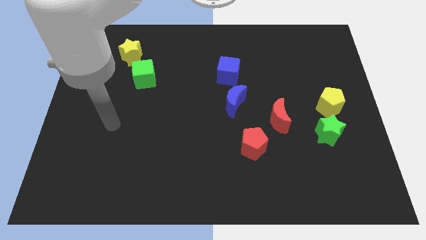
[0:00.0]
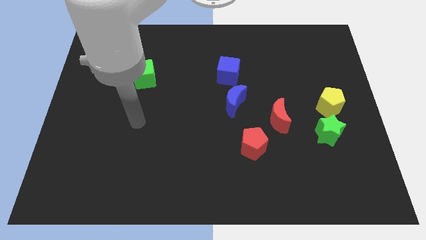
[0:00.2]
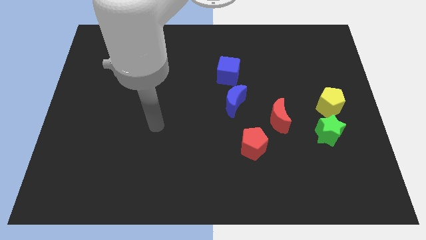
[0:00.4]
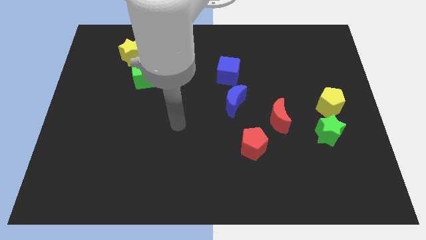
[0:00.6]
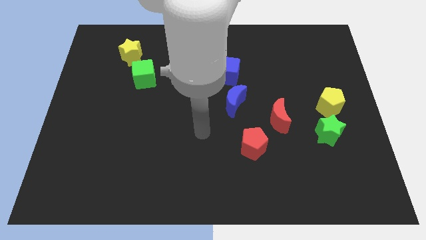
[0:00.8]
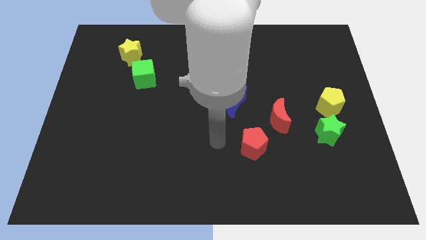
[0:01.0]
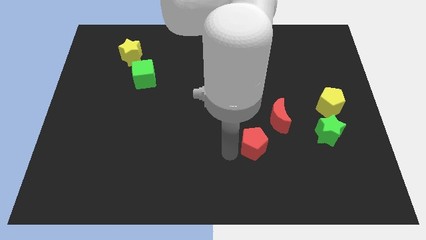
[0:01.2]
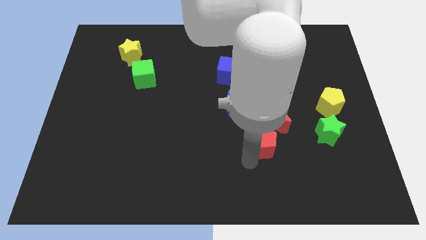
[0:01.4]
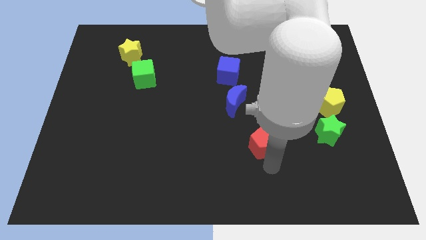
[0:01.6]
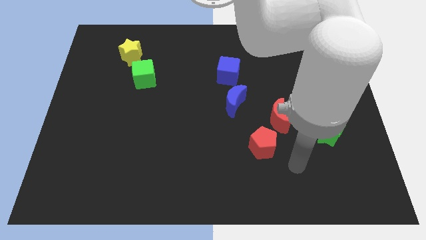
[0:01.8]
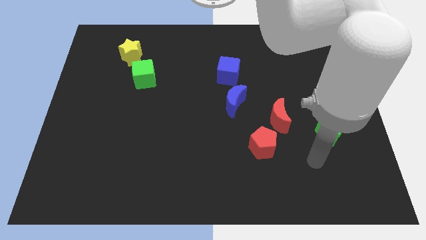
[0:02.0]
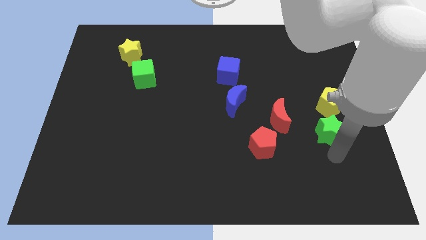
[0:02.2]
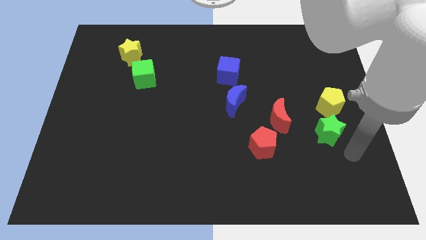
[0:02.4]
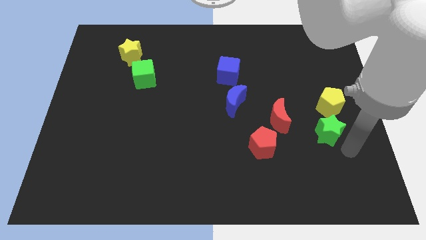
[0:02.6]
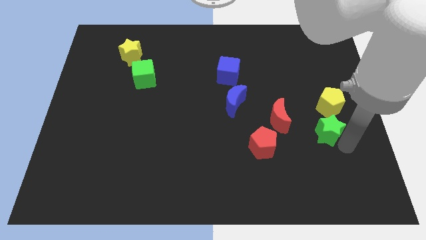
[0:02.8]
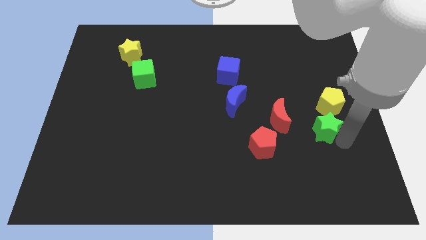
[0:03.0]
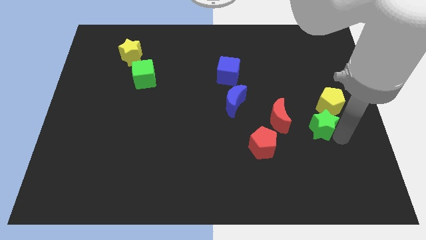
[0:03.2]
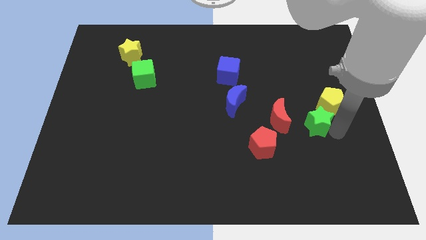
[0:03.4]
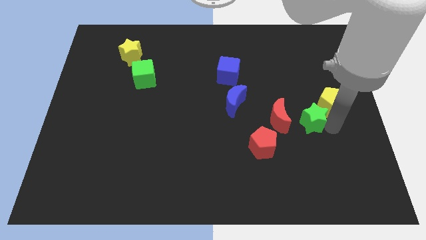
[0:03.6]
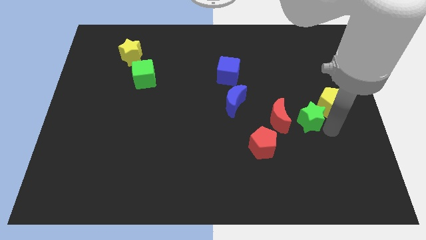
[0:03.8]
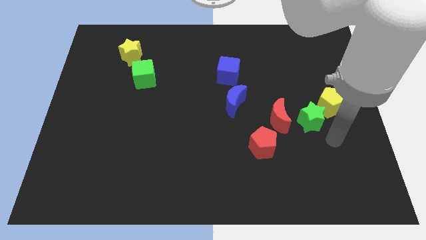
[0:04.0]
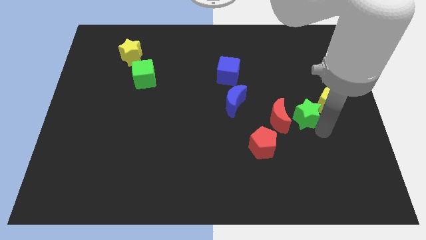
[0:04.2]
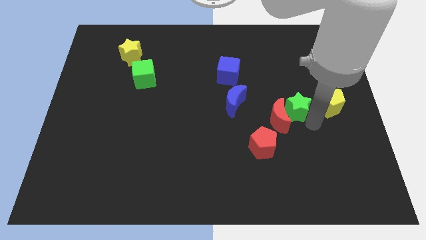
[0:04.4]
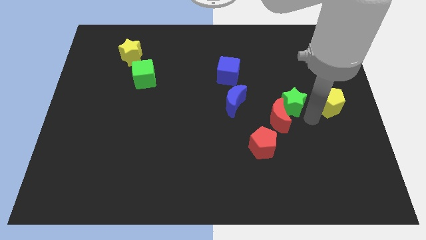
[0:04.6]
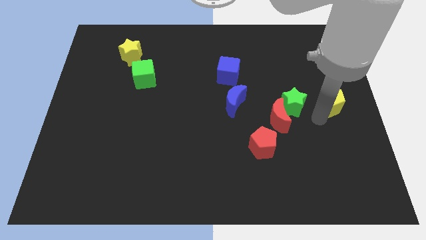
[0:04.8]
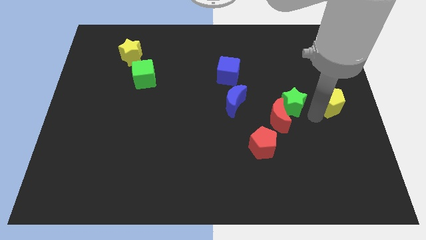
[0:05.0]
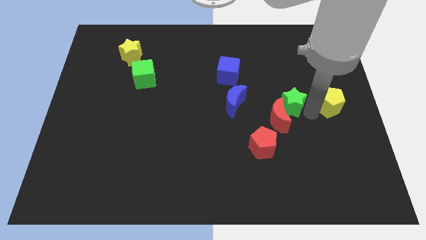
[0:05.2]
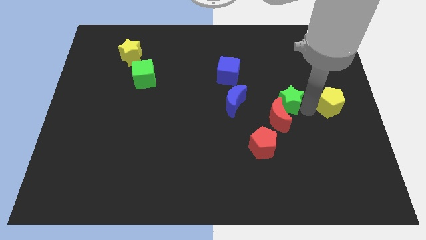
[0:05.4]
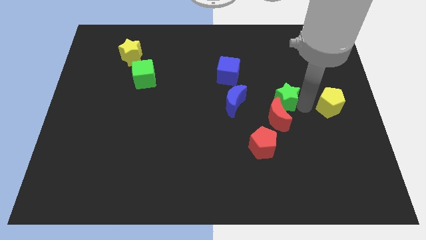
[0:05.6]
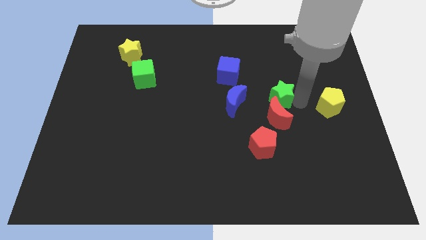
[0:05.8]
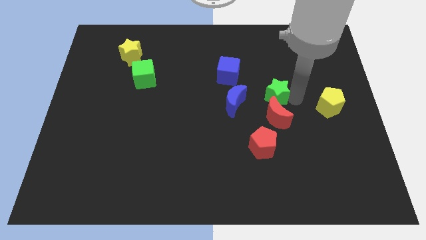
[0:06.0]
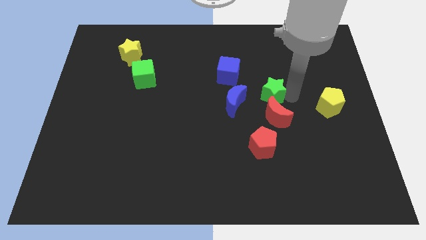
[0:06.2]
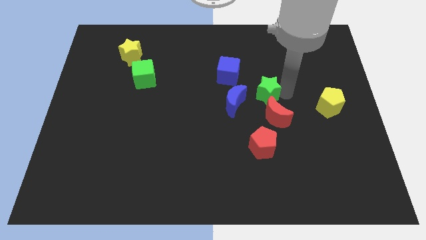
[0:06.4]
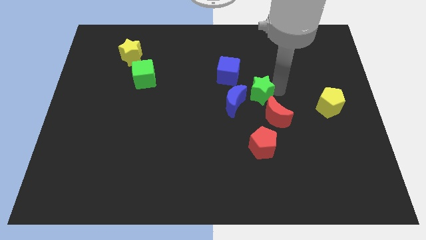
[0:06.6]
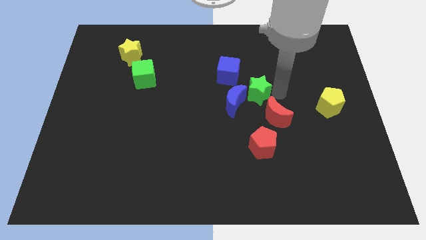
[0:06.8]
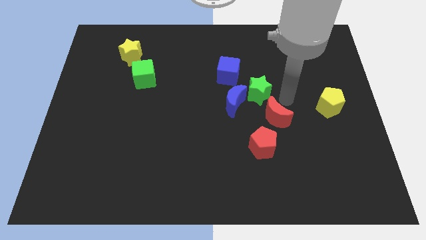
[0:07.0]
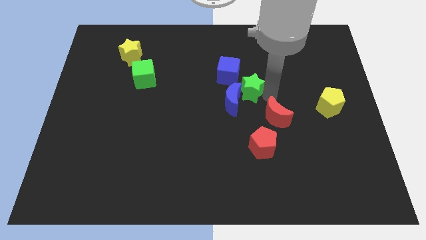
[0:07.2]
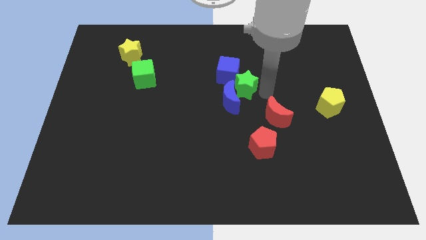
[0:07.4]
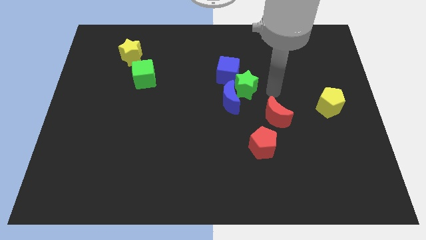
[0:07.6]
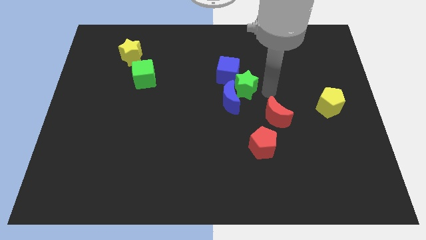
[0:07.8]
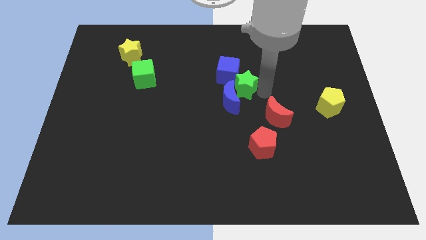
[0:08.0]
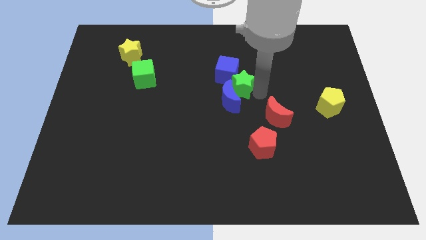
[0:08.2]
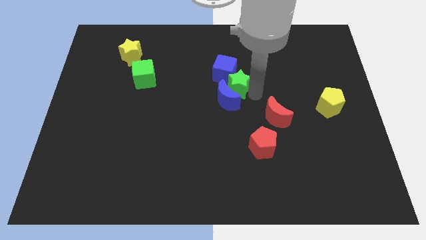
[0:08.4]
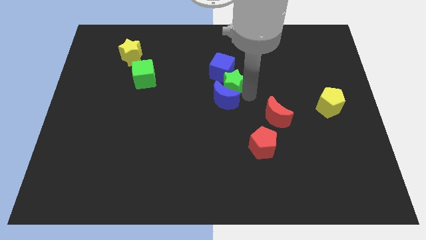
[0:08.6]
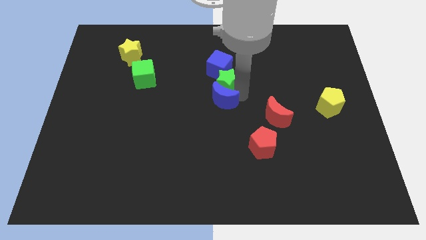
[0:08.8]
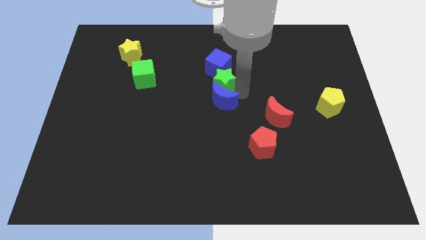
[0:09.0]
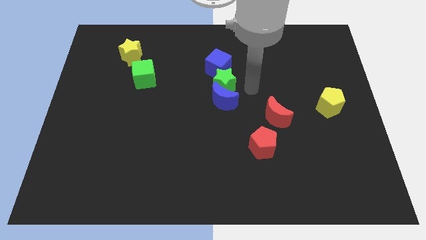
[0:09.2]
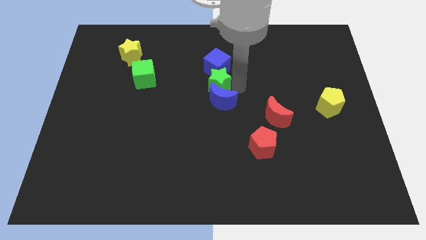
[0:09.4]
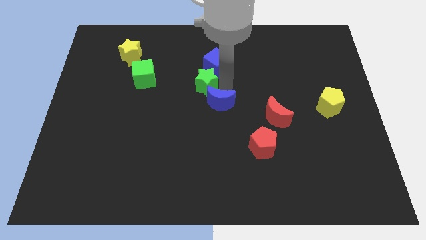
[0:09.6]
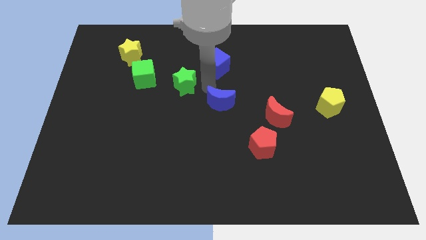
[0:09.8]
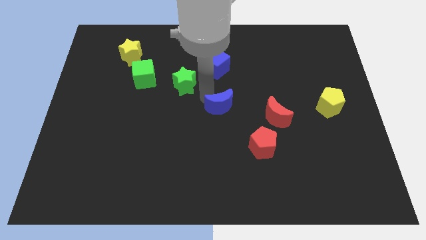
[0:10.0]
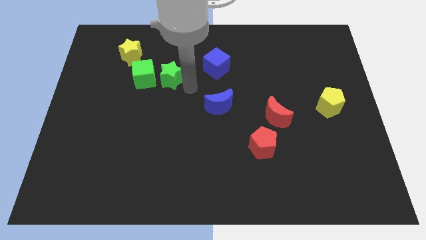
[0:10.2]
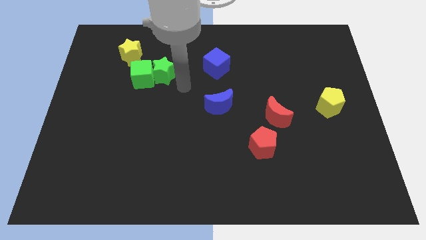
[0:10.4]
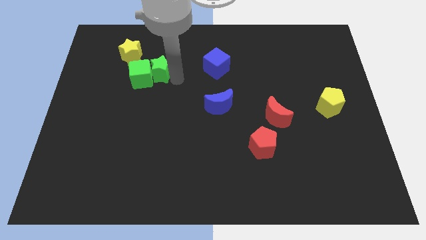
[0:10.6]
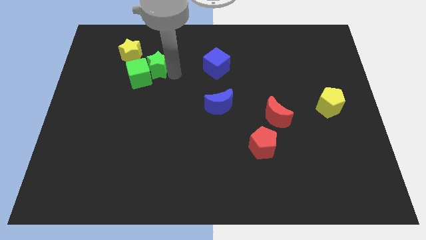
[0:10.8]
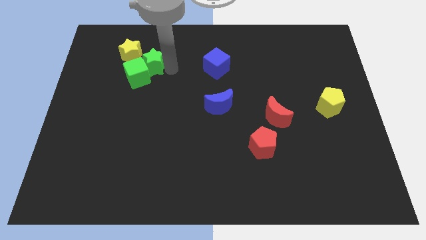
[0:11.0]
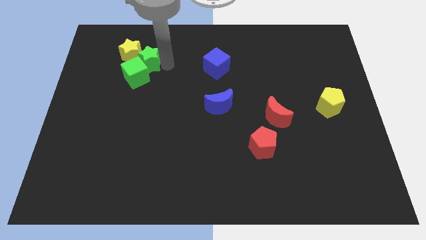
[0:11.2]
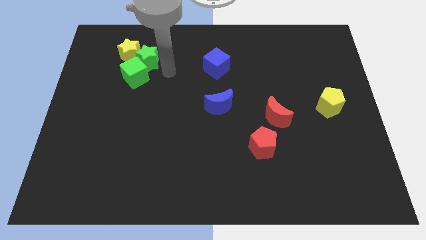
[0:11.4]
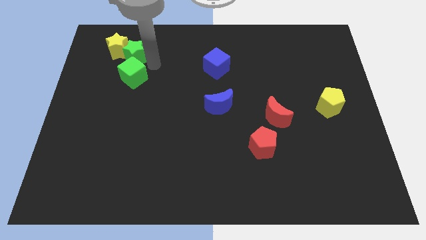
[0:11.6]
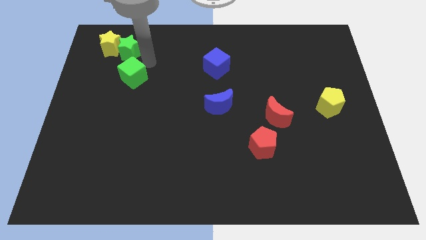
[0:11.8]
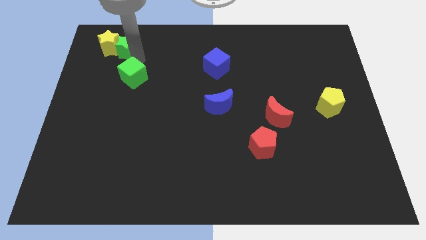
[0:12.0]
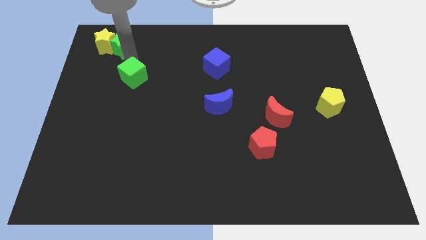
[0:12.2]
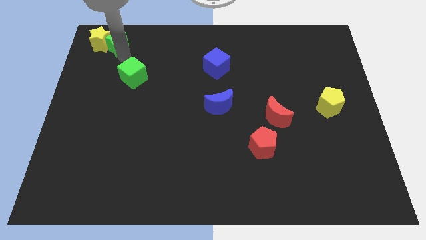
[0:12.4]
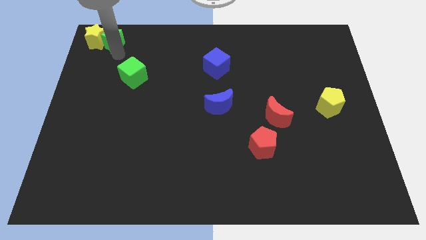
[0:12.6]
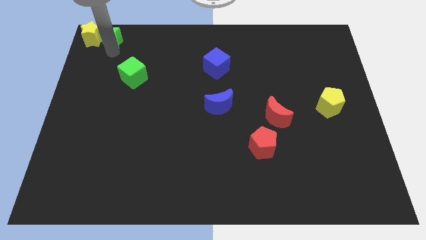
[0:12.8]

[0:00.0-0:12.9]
slide the green star to the upper left corner
